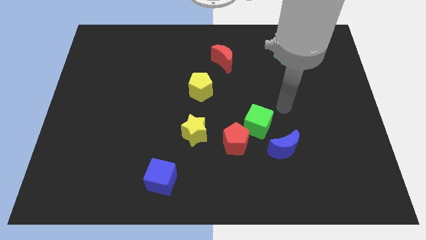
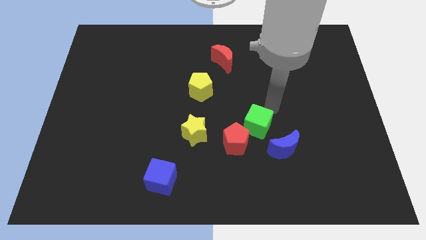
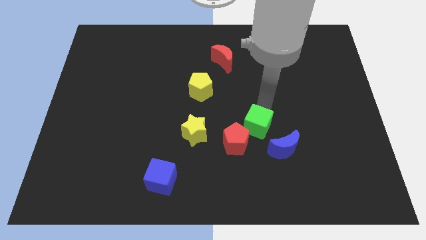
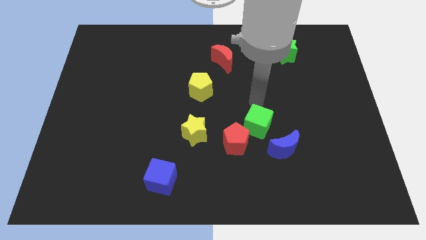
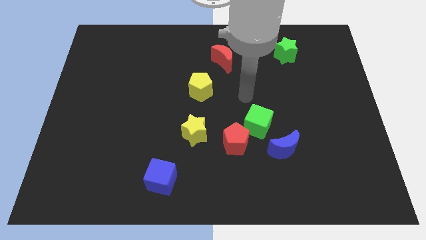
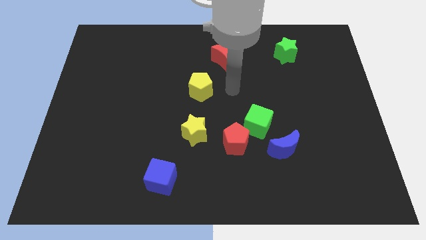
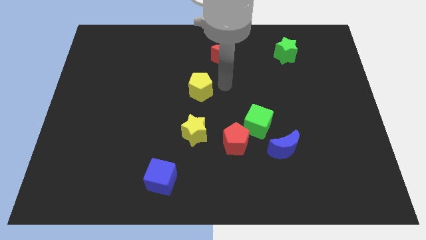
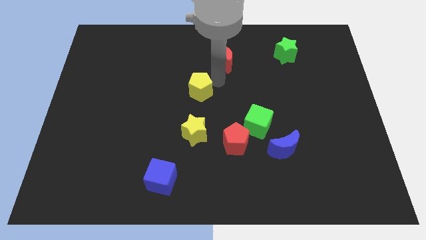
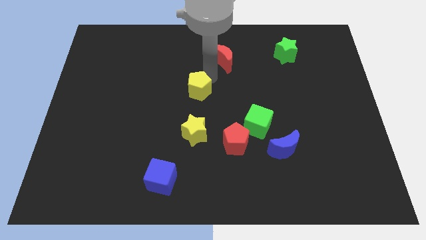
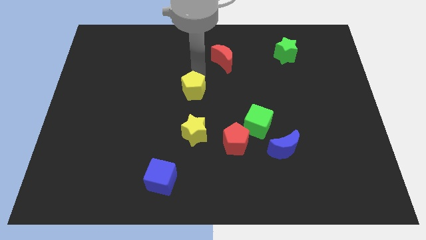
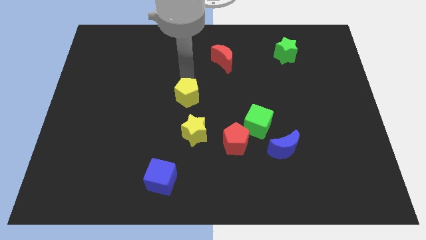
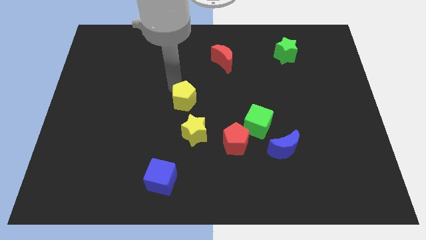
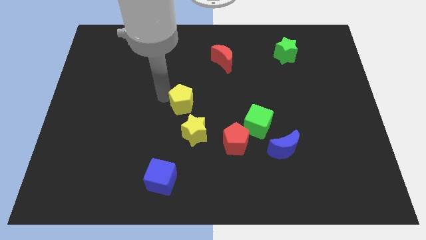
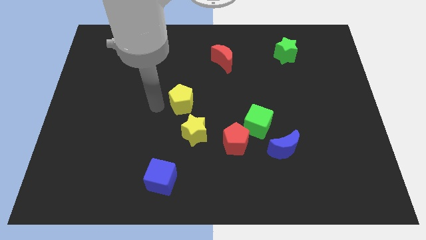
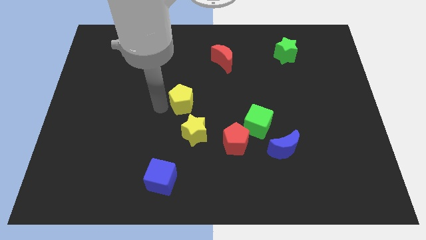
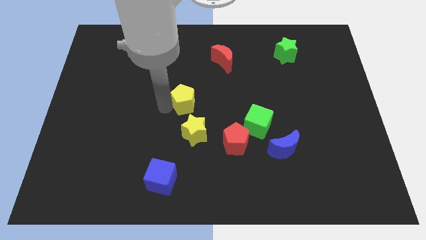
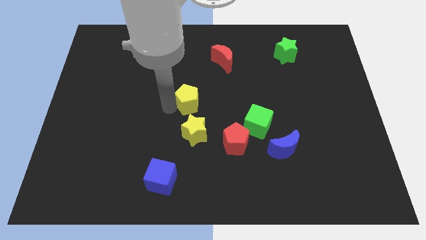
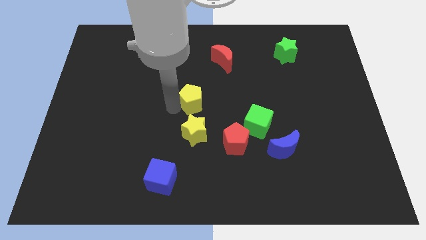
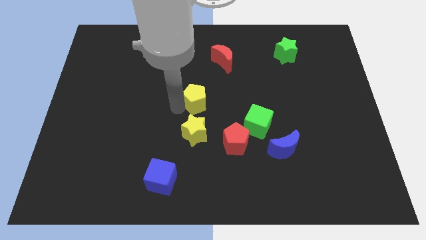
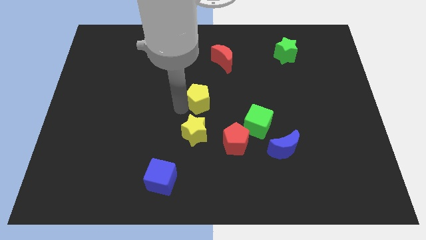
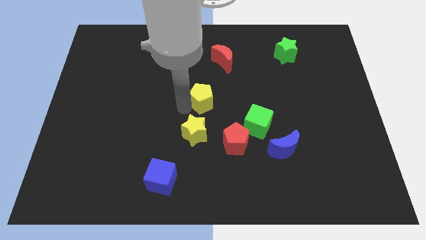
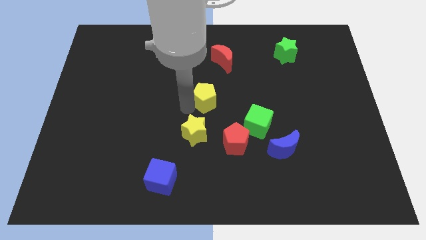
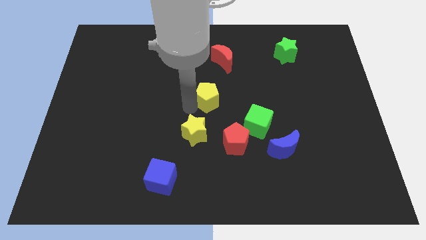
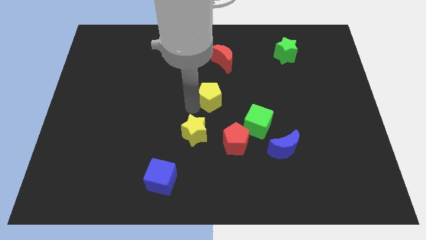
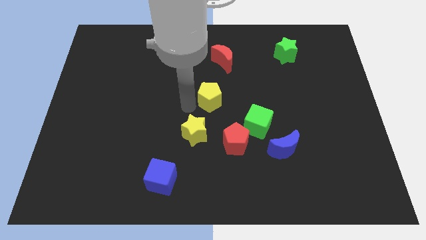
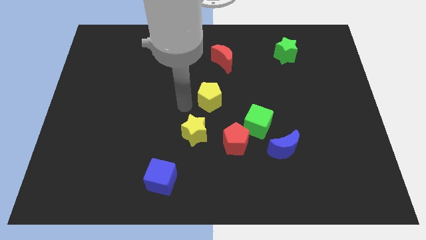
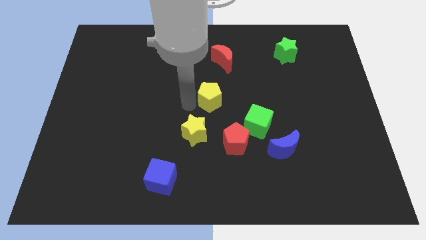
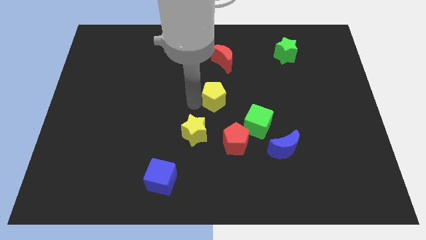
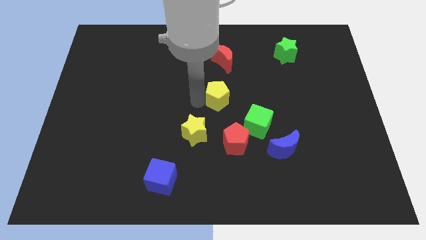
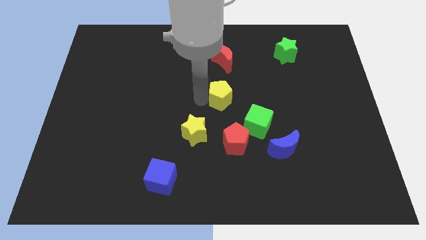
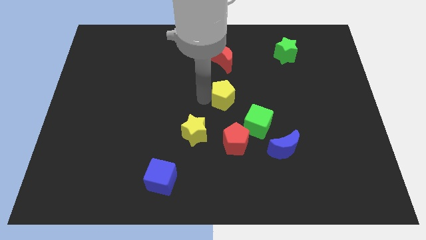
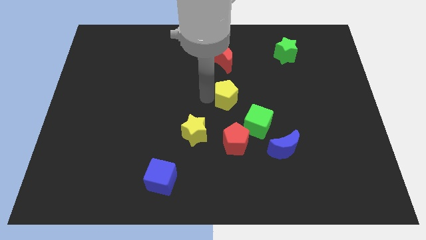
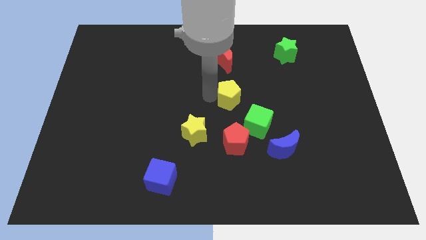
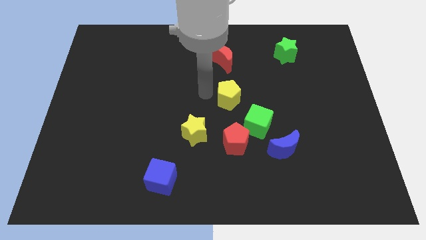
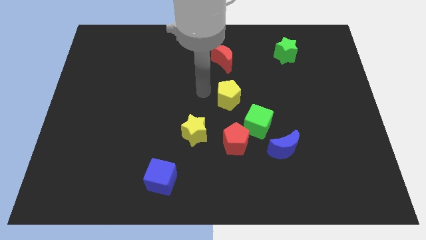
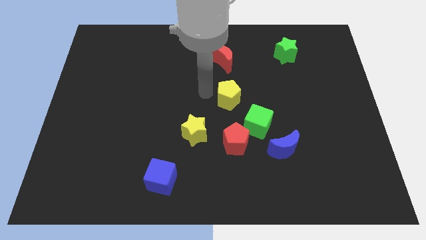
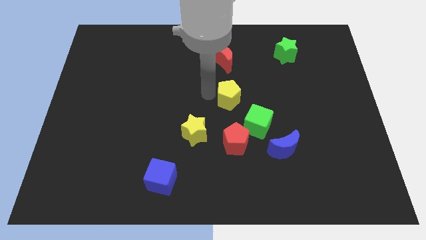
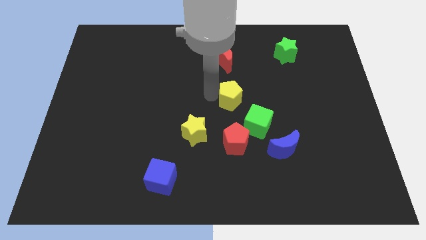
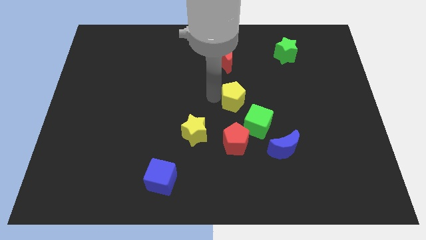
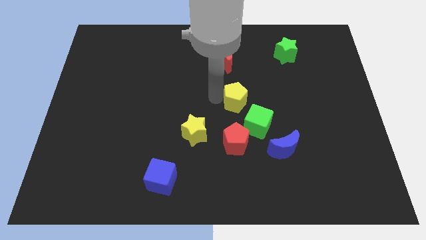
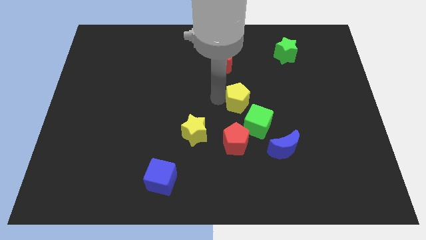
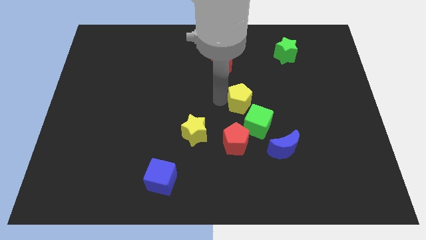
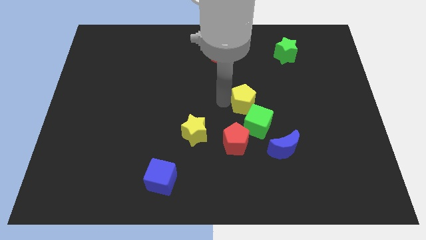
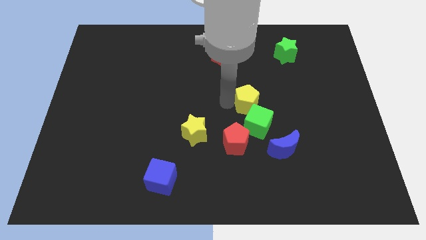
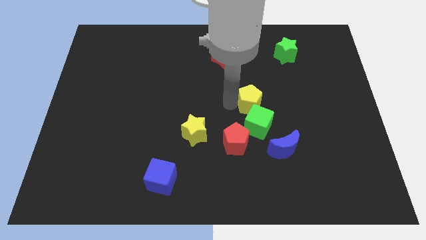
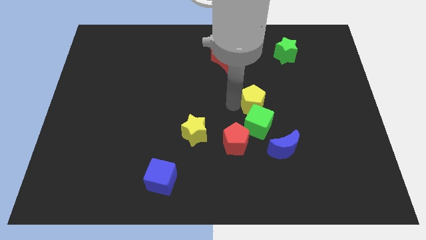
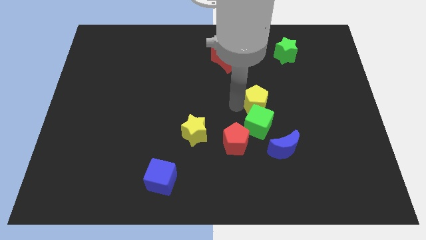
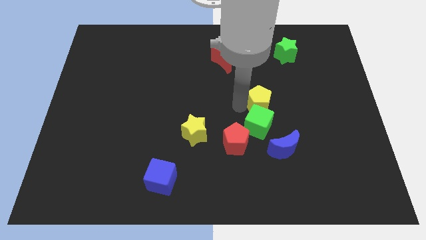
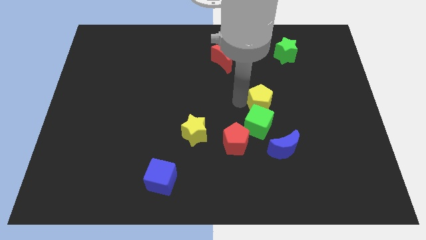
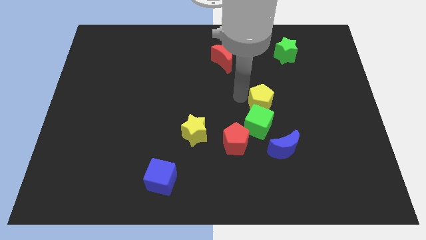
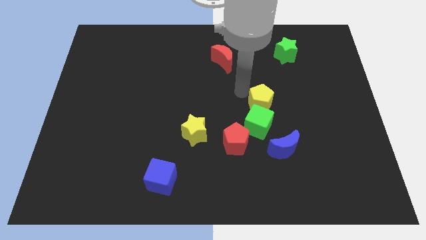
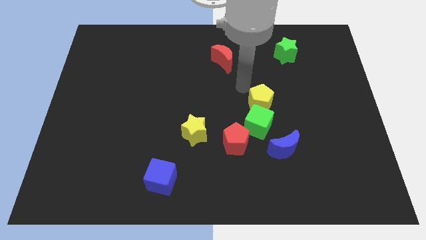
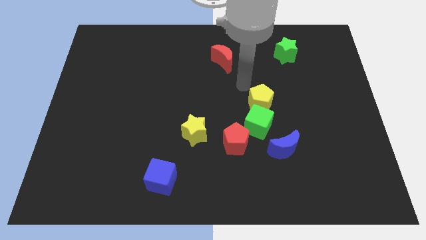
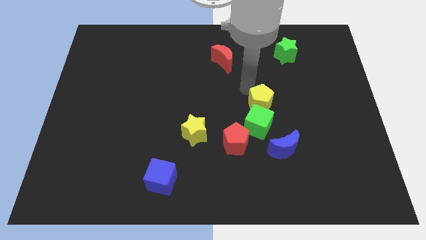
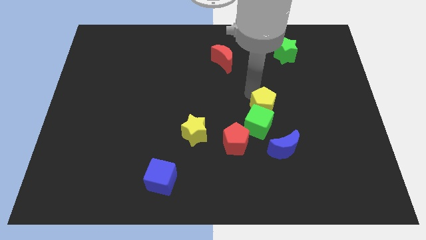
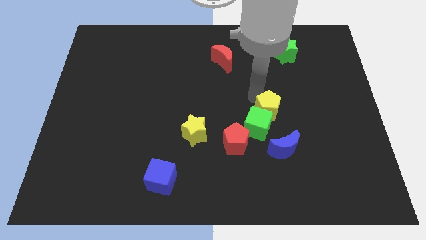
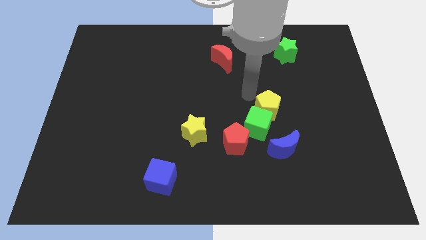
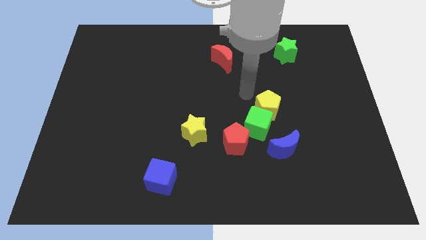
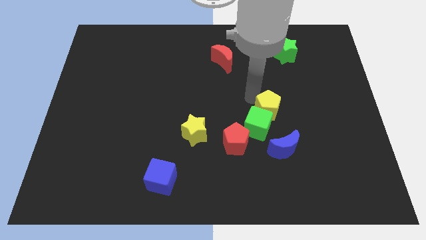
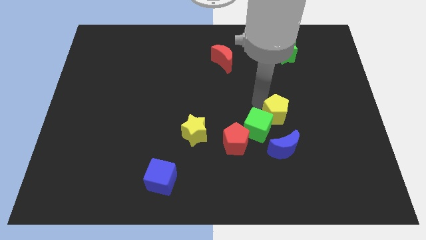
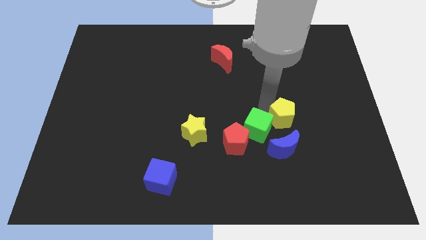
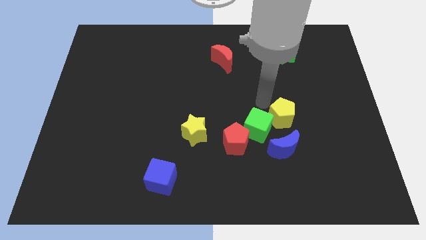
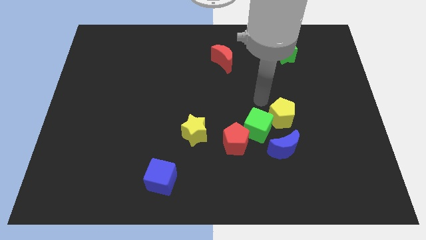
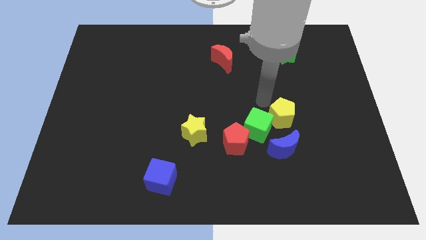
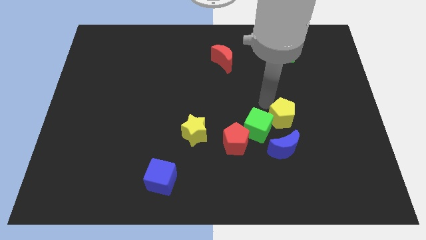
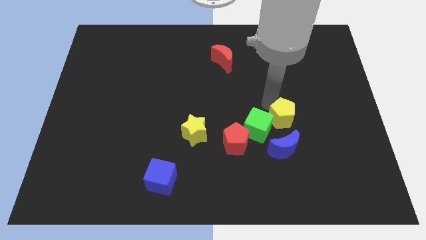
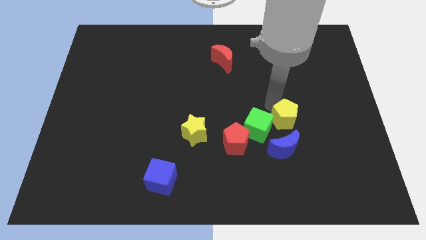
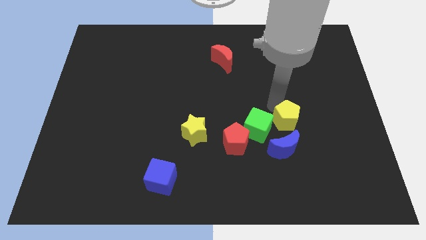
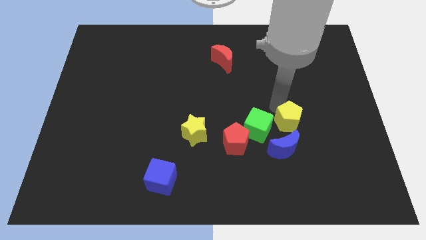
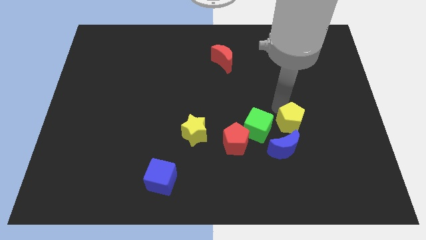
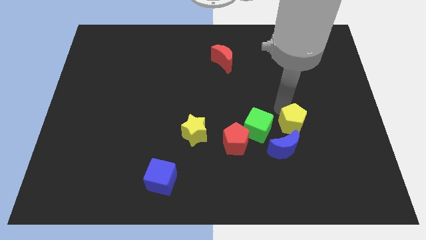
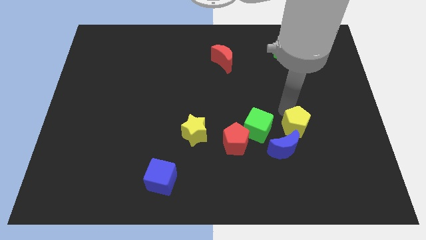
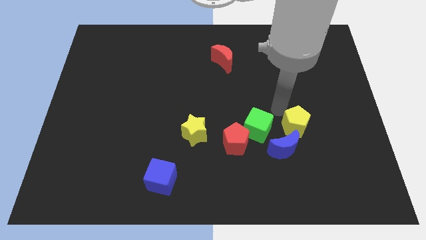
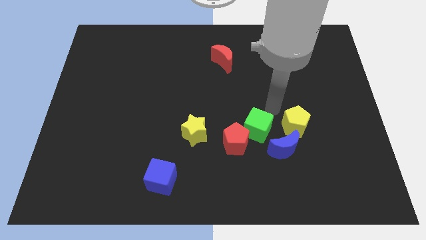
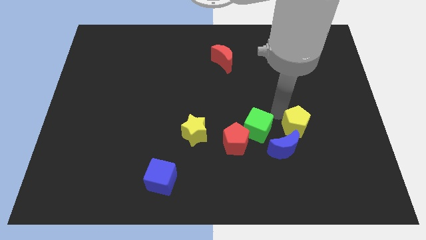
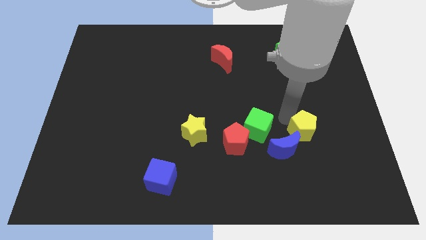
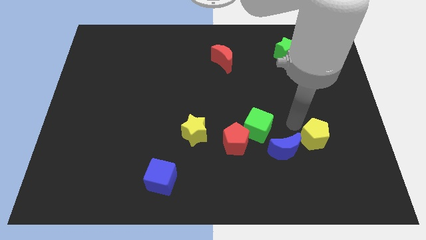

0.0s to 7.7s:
put the yellow pentagon to the right of the blue moon
